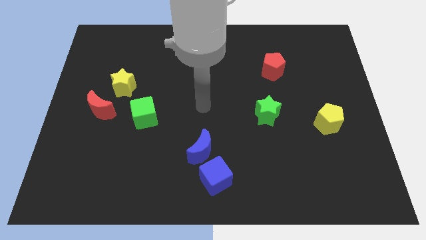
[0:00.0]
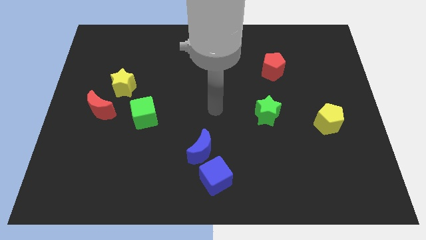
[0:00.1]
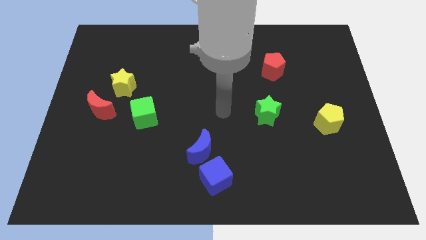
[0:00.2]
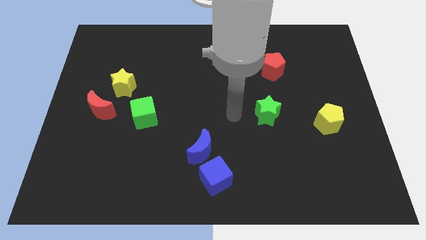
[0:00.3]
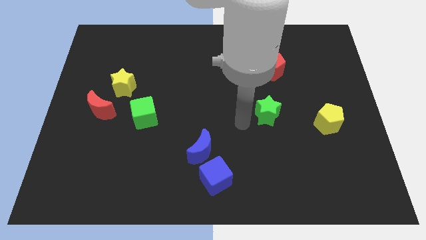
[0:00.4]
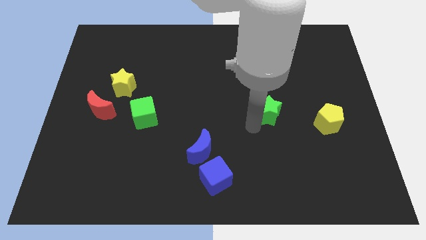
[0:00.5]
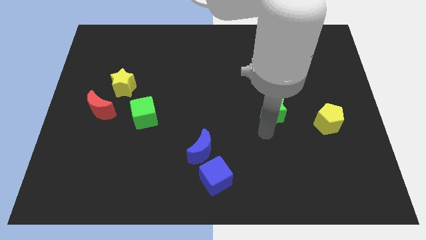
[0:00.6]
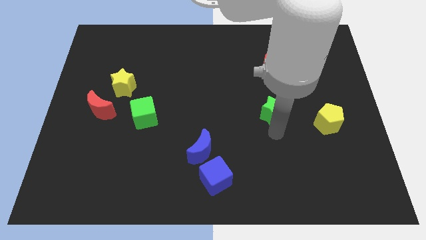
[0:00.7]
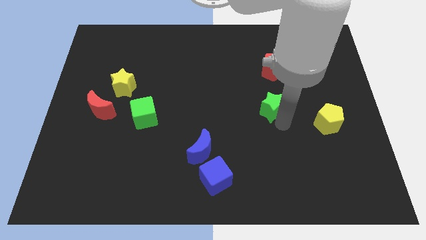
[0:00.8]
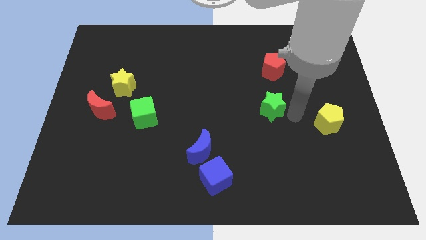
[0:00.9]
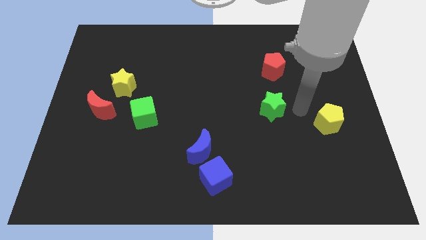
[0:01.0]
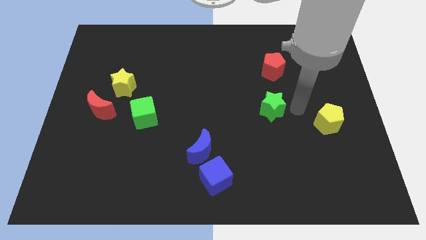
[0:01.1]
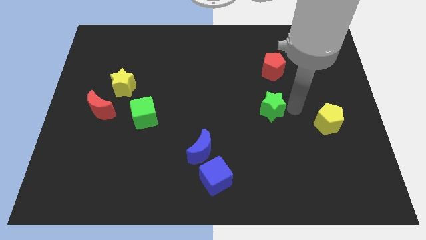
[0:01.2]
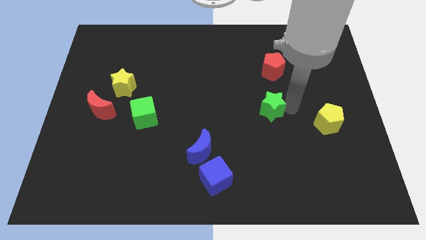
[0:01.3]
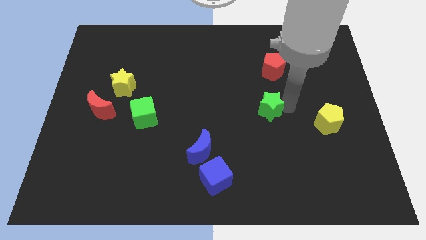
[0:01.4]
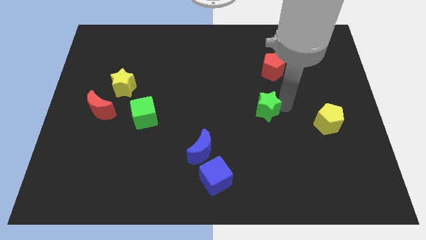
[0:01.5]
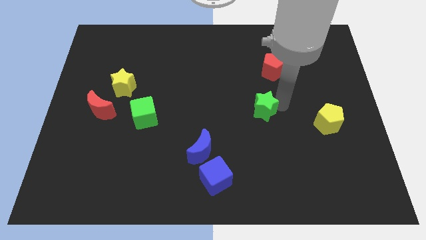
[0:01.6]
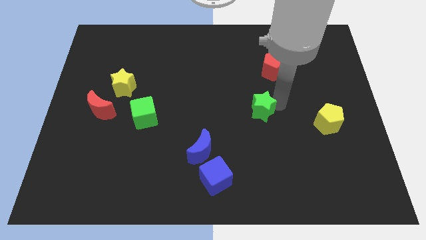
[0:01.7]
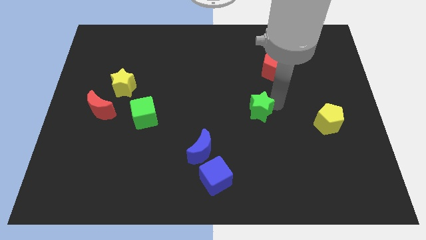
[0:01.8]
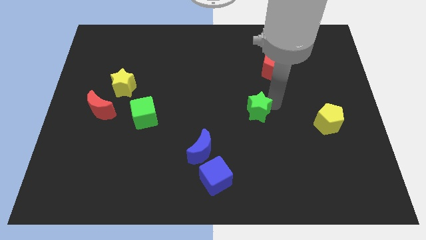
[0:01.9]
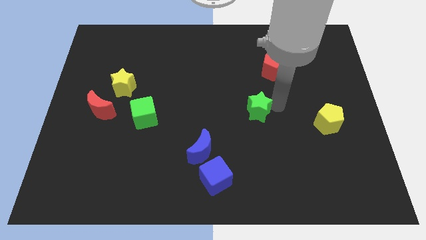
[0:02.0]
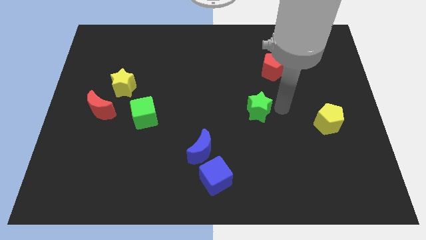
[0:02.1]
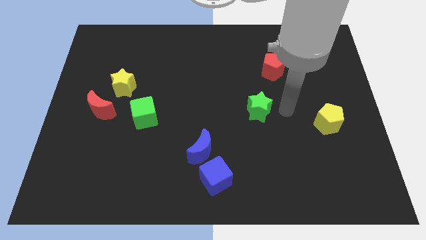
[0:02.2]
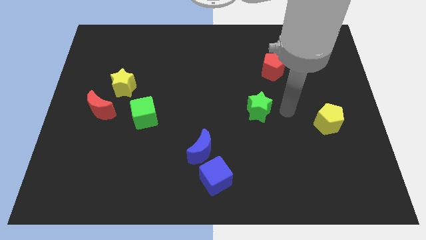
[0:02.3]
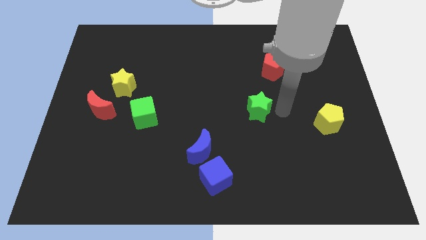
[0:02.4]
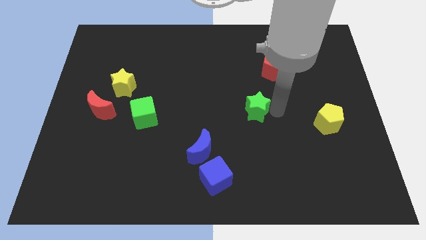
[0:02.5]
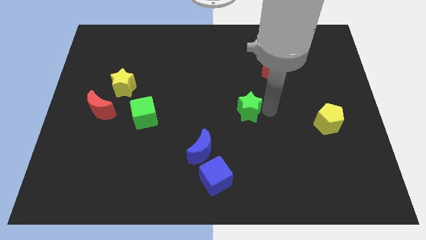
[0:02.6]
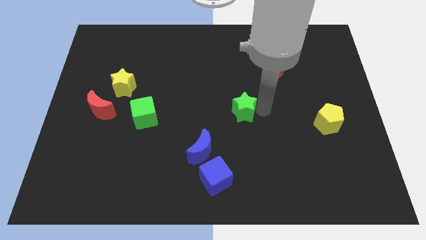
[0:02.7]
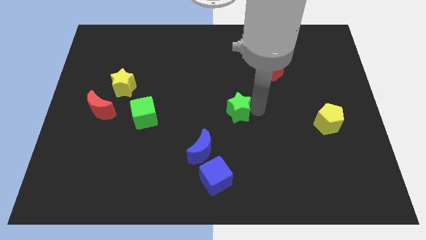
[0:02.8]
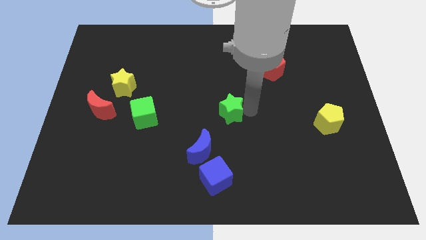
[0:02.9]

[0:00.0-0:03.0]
move the green star to the left a little

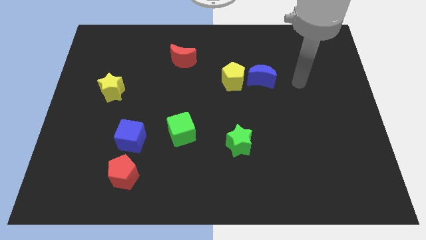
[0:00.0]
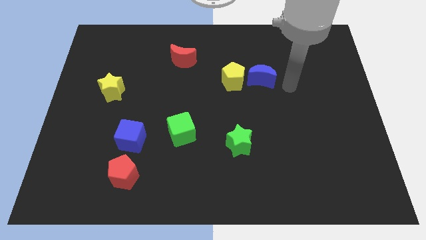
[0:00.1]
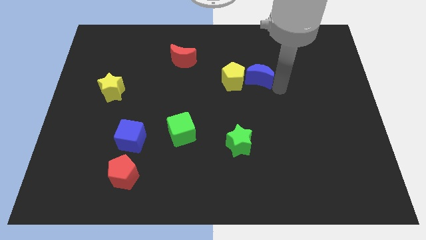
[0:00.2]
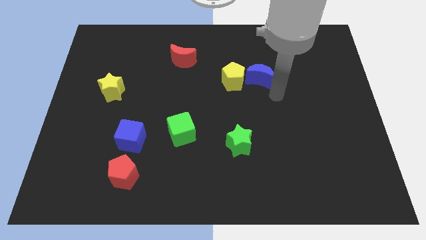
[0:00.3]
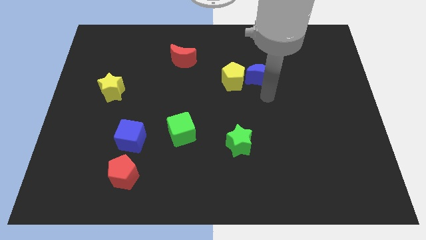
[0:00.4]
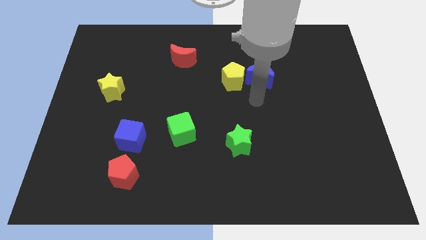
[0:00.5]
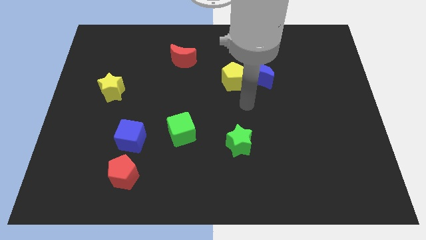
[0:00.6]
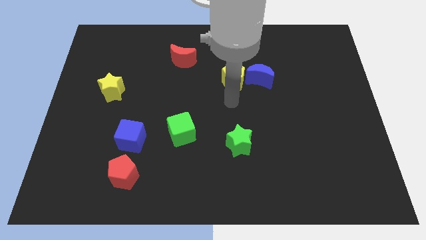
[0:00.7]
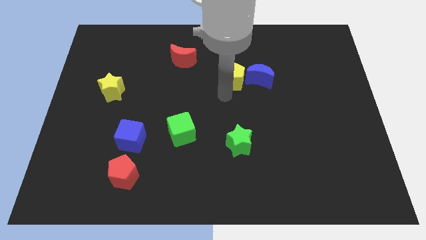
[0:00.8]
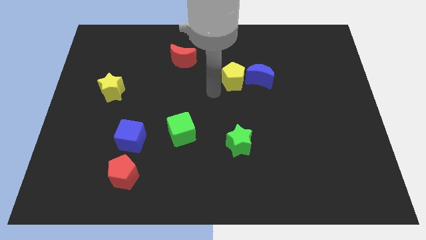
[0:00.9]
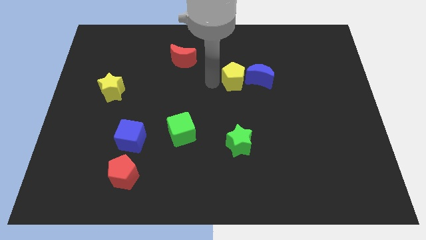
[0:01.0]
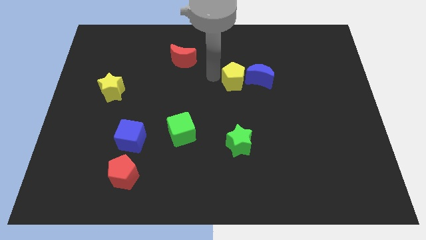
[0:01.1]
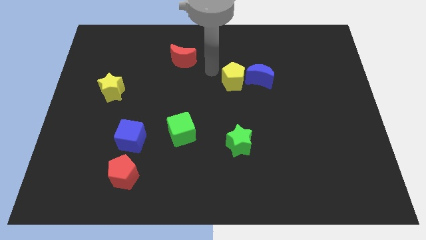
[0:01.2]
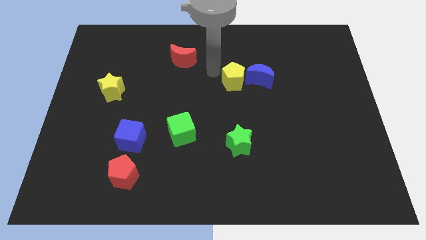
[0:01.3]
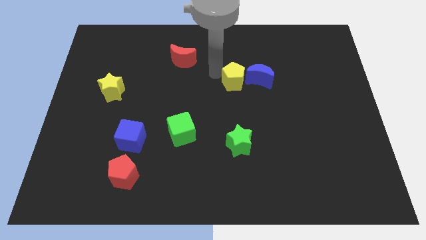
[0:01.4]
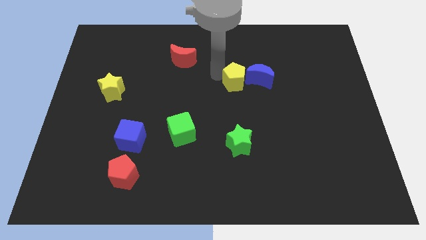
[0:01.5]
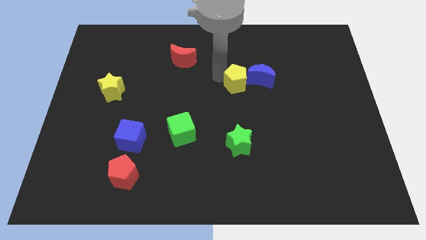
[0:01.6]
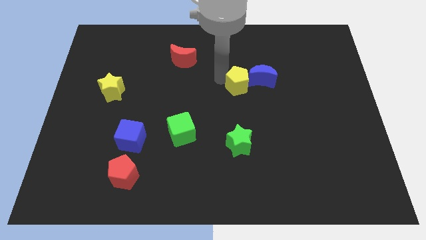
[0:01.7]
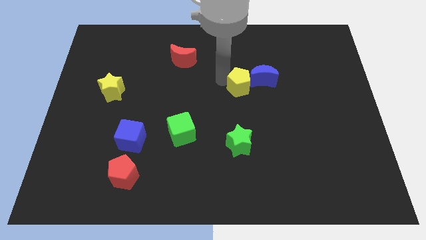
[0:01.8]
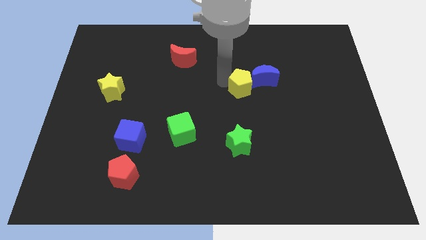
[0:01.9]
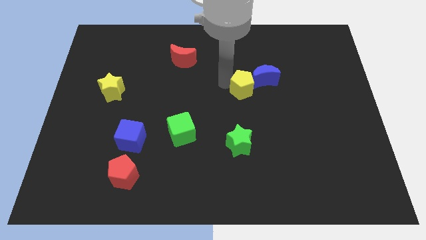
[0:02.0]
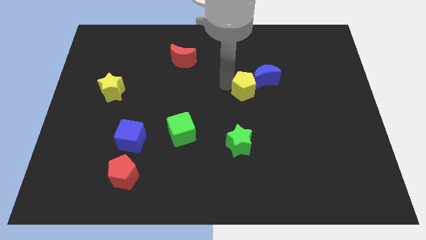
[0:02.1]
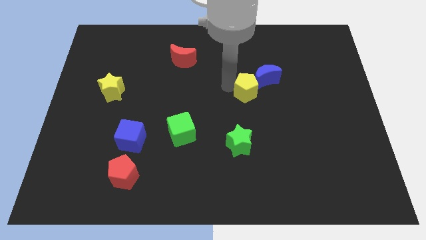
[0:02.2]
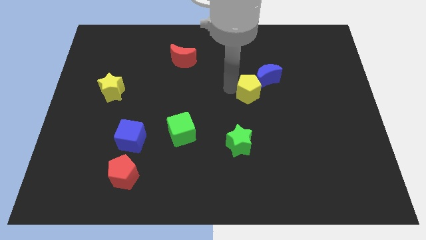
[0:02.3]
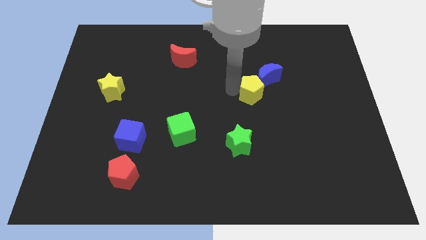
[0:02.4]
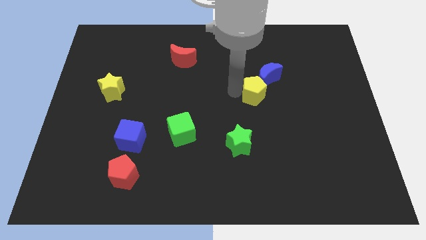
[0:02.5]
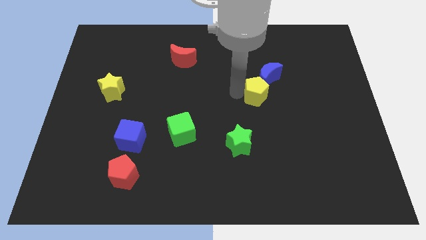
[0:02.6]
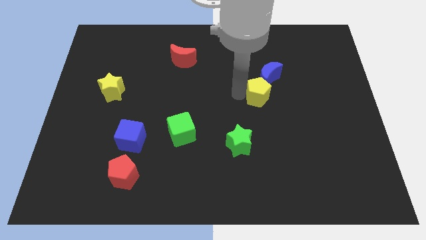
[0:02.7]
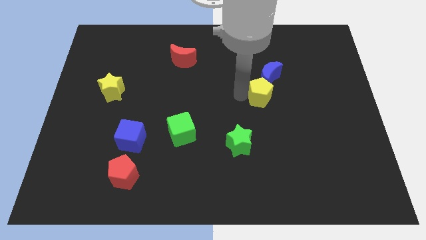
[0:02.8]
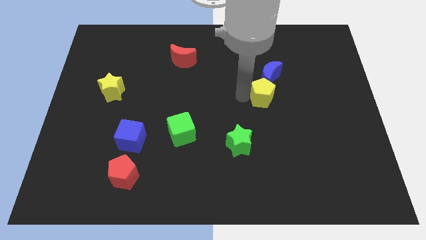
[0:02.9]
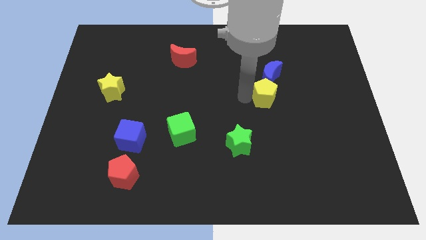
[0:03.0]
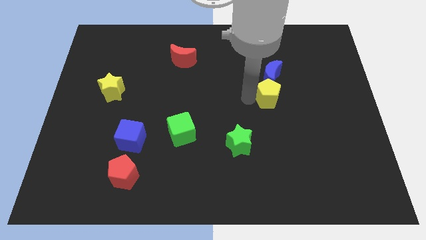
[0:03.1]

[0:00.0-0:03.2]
slightly slide the yellow pentagon right

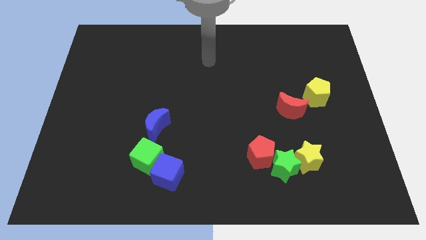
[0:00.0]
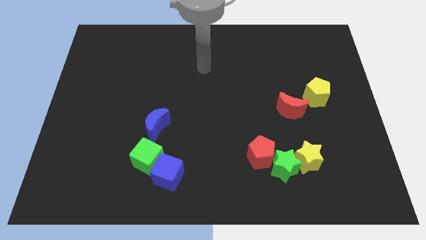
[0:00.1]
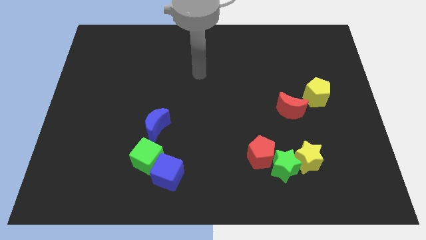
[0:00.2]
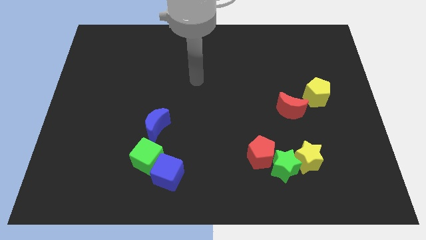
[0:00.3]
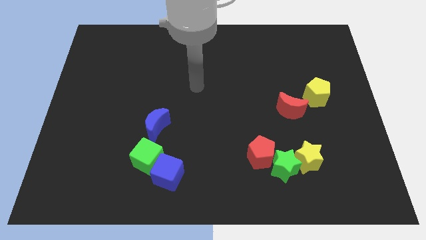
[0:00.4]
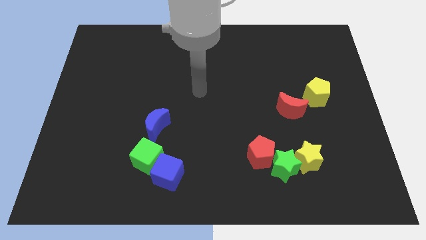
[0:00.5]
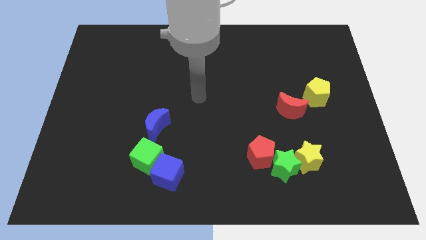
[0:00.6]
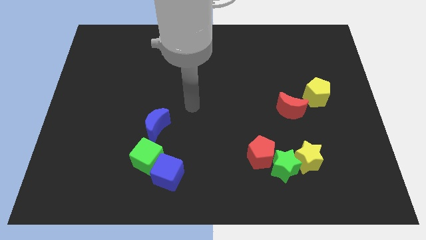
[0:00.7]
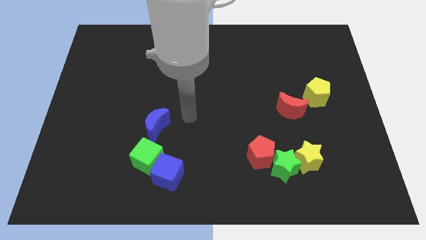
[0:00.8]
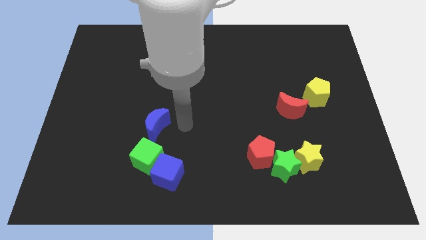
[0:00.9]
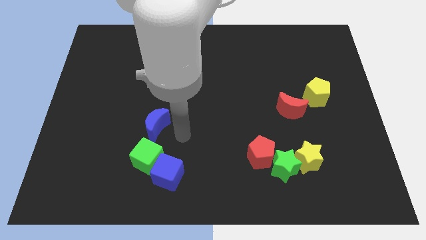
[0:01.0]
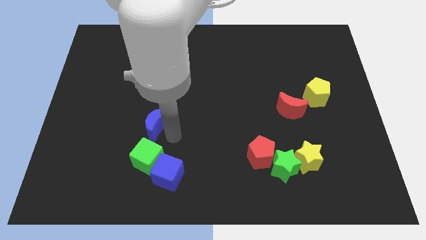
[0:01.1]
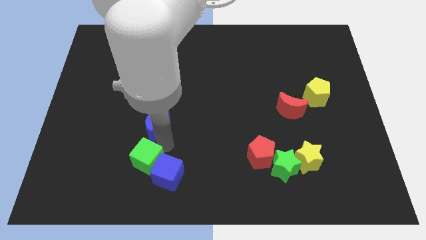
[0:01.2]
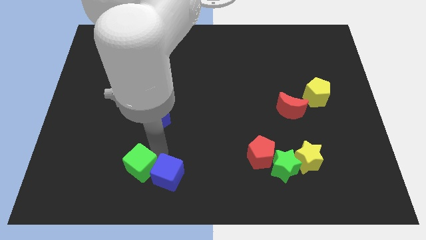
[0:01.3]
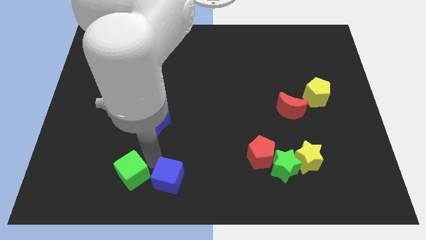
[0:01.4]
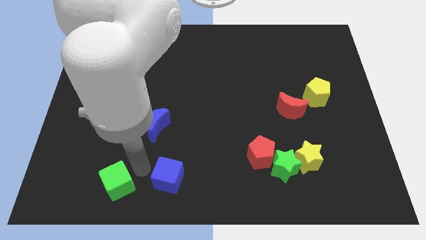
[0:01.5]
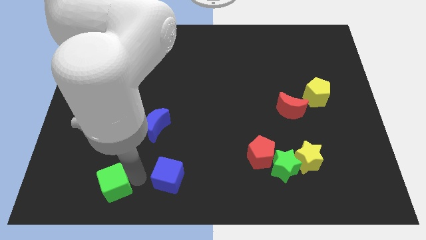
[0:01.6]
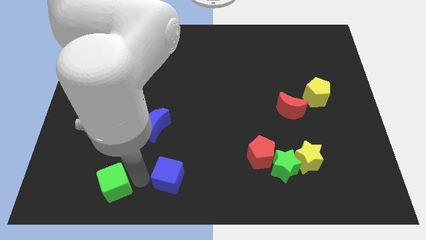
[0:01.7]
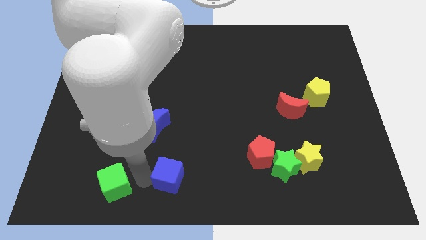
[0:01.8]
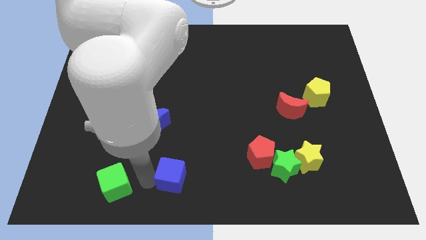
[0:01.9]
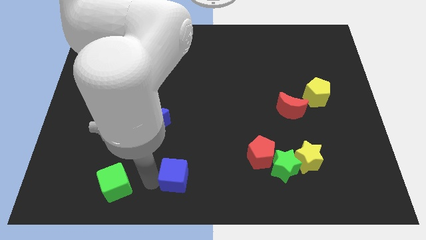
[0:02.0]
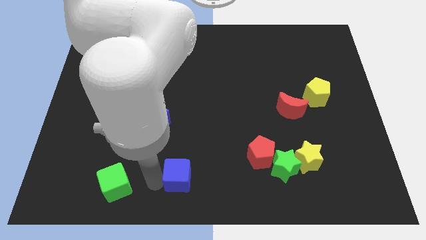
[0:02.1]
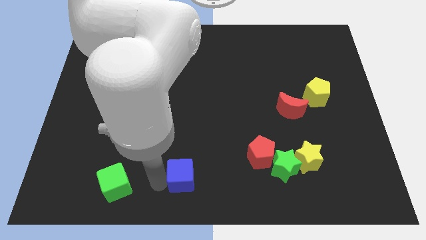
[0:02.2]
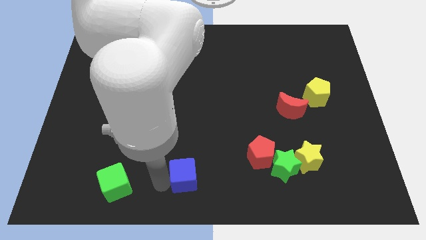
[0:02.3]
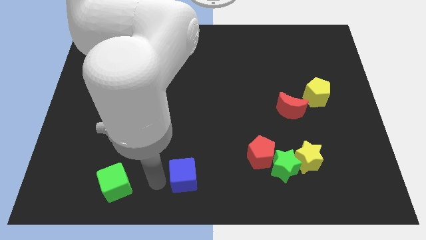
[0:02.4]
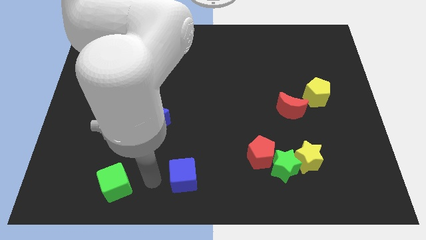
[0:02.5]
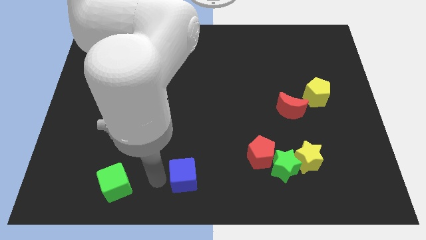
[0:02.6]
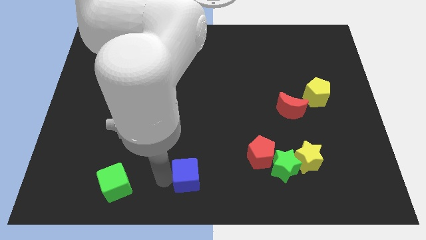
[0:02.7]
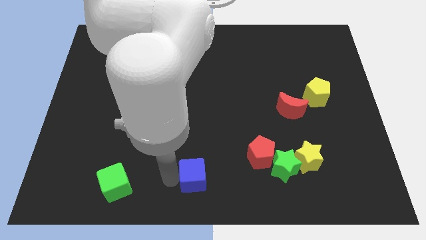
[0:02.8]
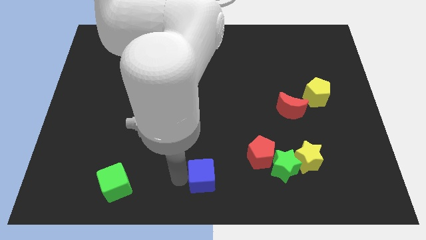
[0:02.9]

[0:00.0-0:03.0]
slightly slide the blue cube to the right
